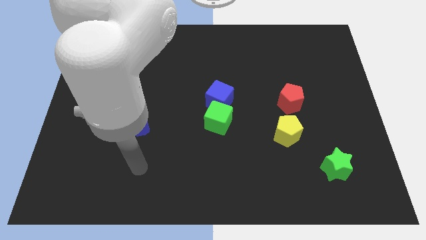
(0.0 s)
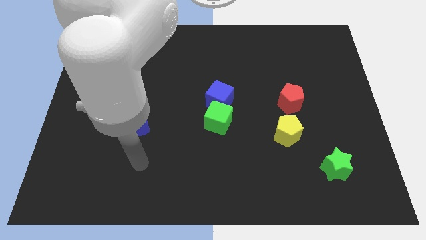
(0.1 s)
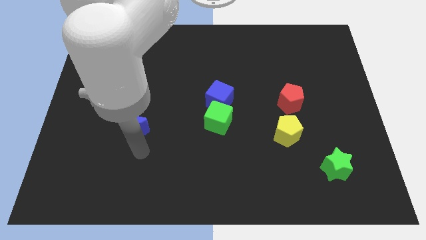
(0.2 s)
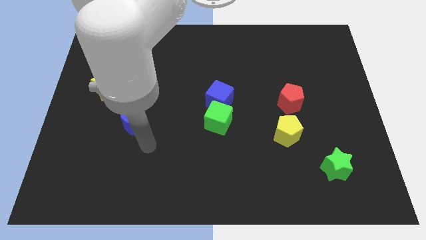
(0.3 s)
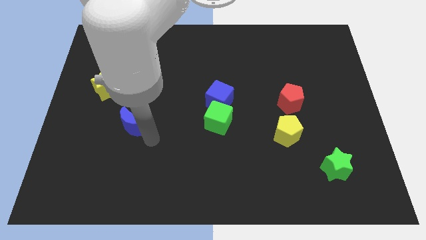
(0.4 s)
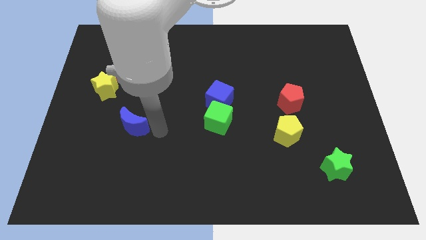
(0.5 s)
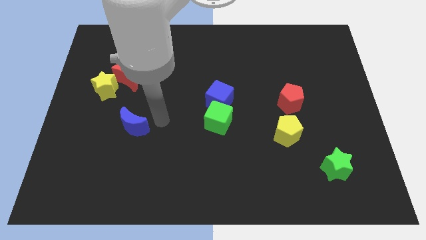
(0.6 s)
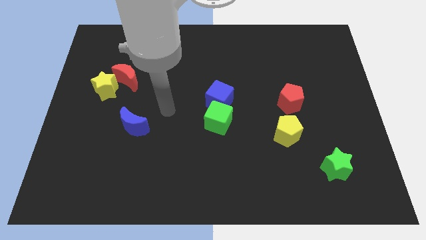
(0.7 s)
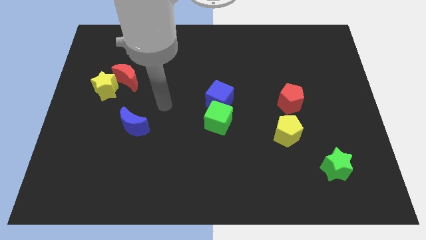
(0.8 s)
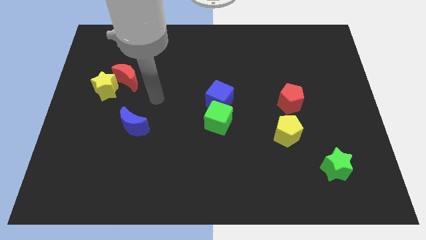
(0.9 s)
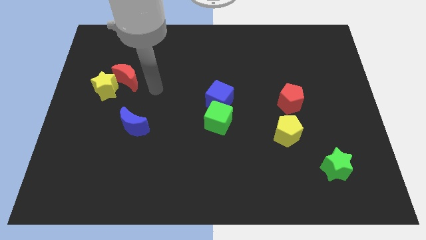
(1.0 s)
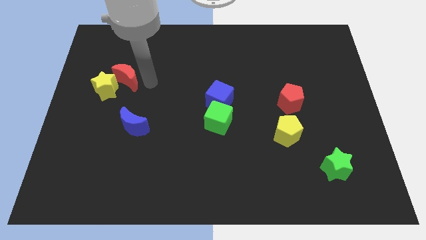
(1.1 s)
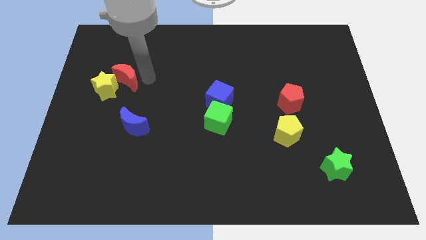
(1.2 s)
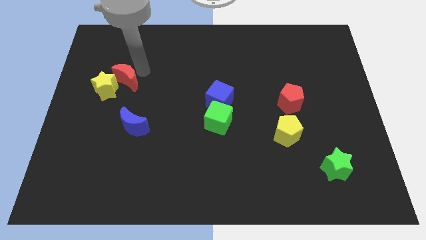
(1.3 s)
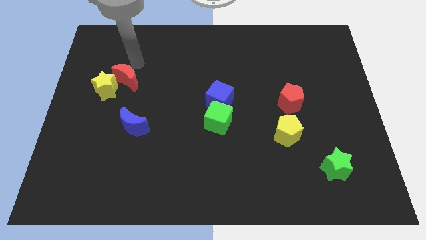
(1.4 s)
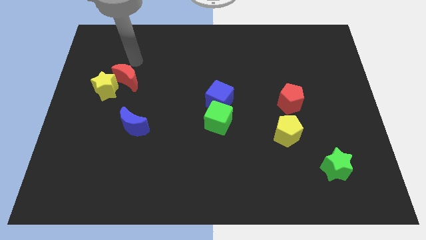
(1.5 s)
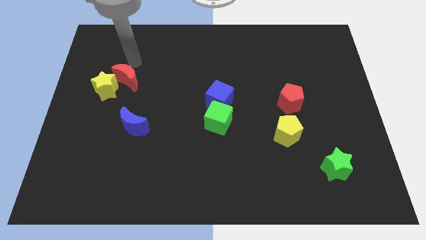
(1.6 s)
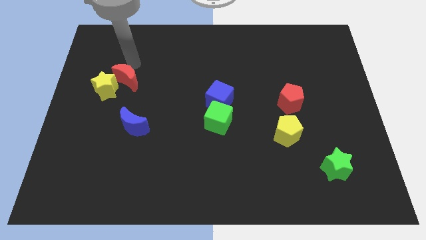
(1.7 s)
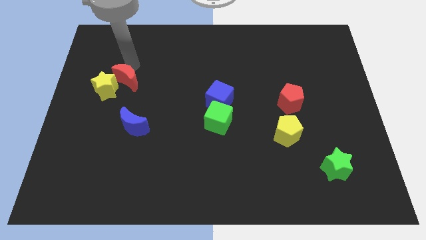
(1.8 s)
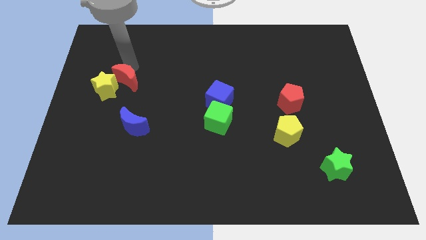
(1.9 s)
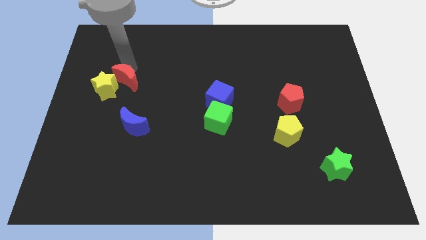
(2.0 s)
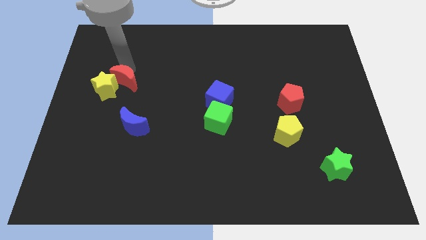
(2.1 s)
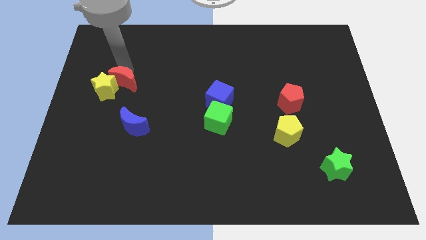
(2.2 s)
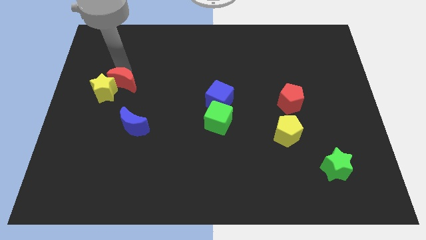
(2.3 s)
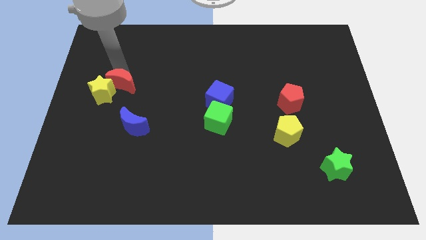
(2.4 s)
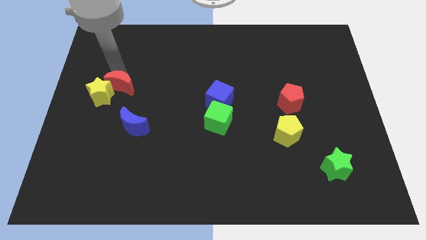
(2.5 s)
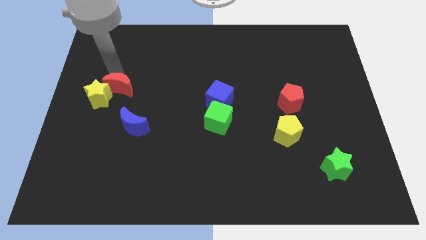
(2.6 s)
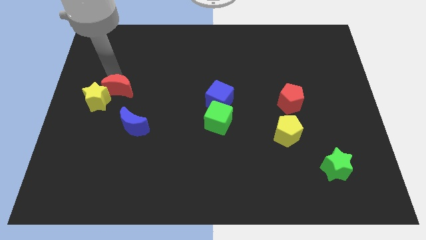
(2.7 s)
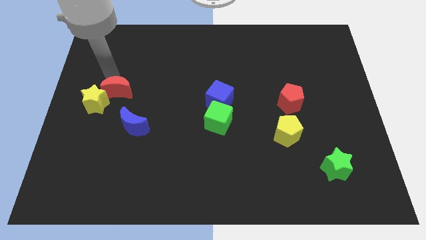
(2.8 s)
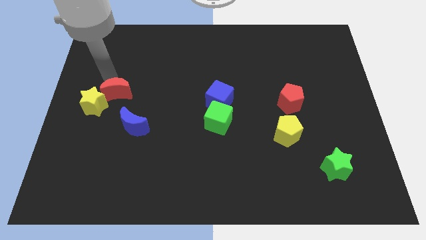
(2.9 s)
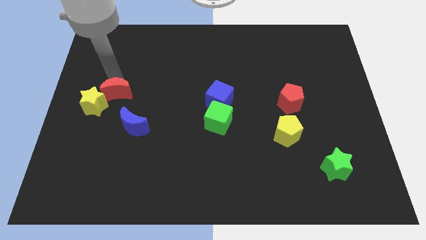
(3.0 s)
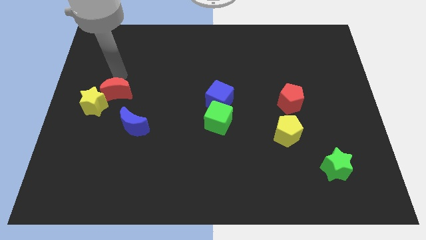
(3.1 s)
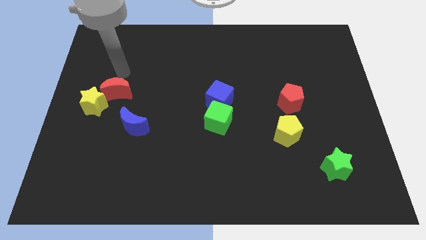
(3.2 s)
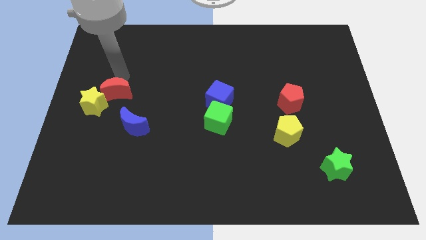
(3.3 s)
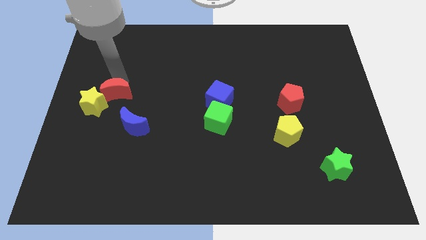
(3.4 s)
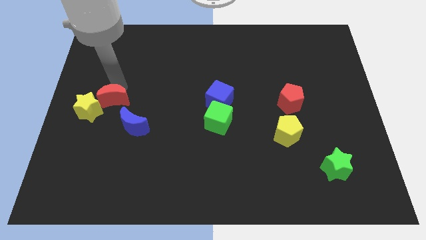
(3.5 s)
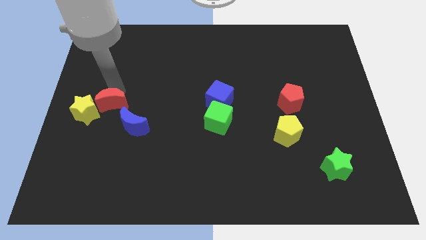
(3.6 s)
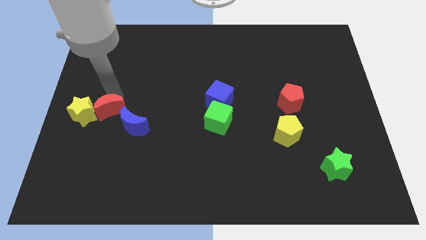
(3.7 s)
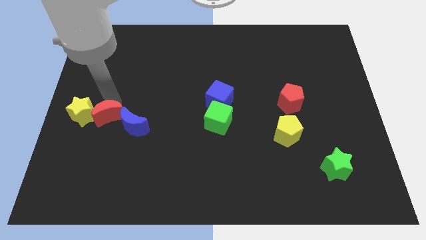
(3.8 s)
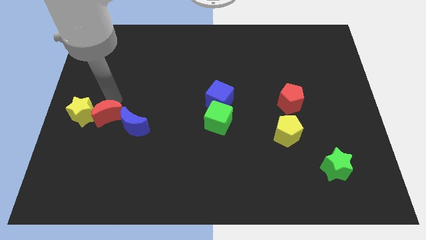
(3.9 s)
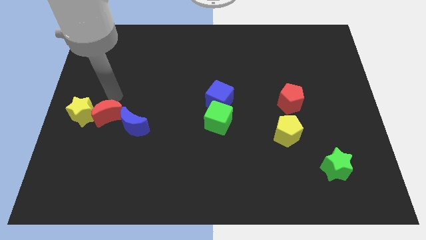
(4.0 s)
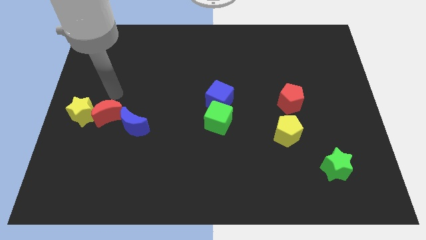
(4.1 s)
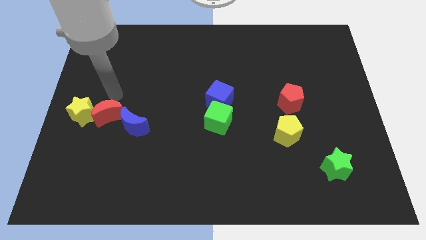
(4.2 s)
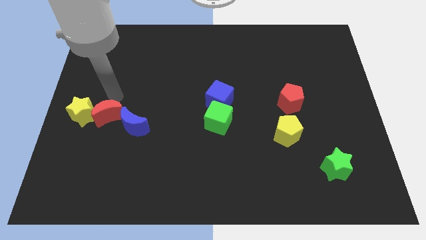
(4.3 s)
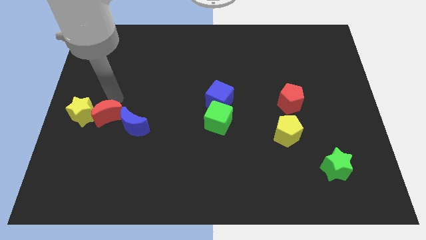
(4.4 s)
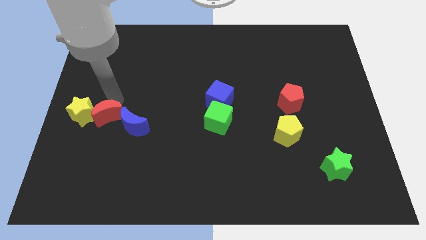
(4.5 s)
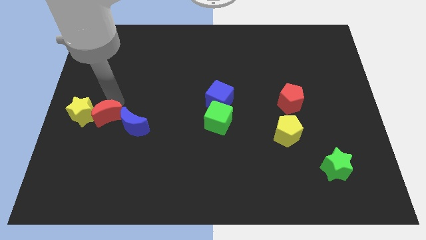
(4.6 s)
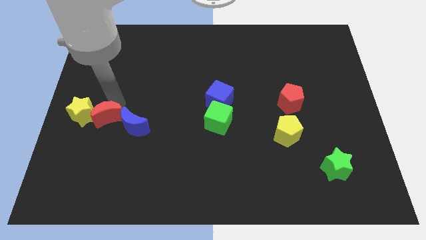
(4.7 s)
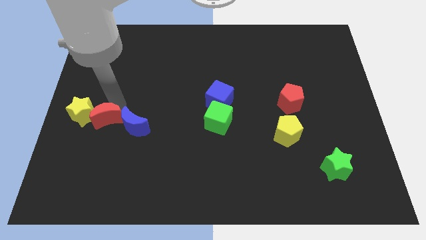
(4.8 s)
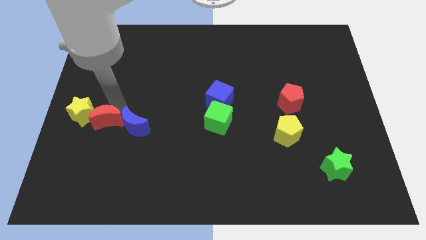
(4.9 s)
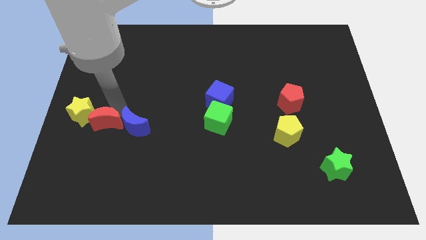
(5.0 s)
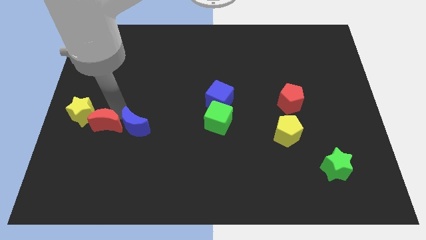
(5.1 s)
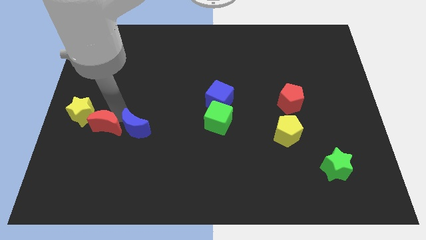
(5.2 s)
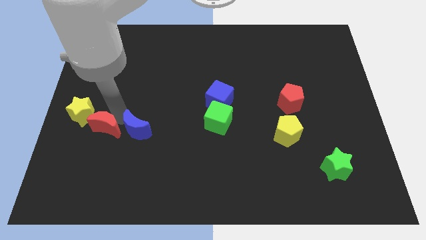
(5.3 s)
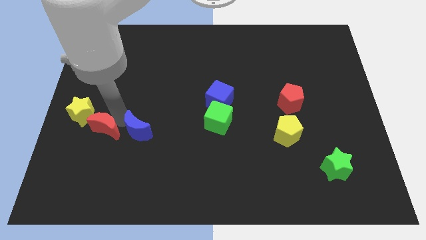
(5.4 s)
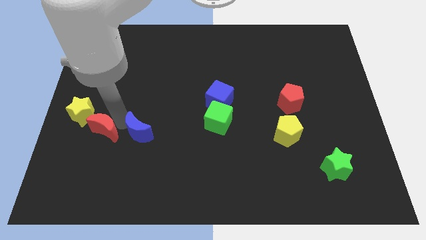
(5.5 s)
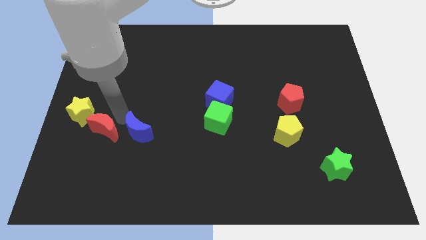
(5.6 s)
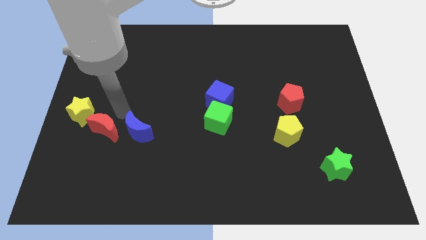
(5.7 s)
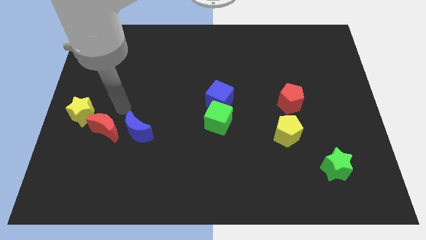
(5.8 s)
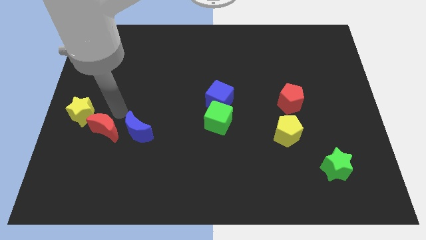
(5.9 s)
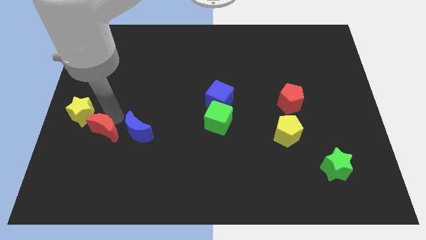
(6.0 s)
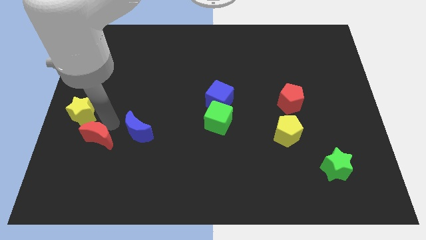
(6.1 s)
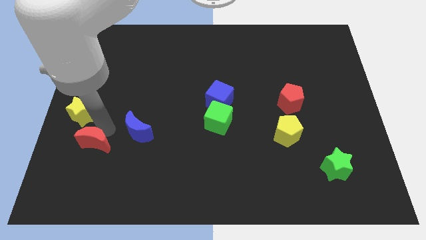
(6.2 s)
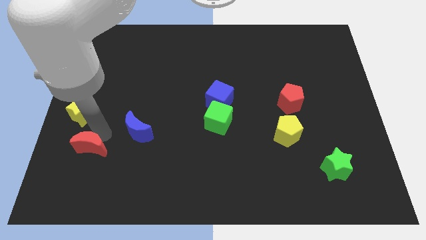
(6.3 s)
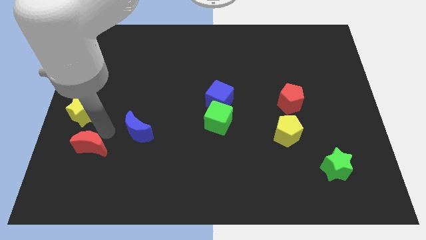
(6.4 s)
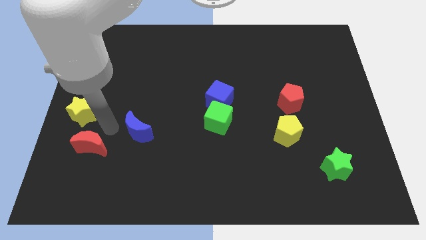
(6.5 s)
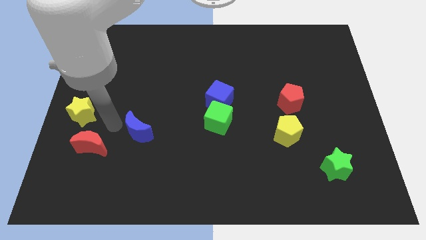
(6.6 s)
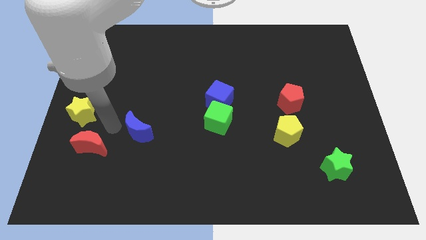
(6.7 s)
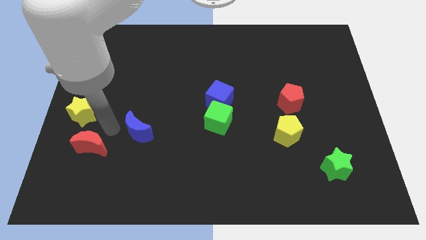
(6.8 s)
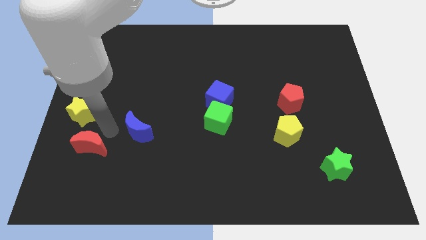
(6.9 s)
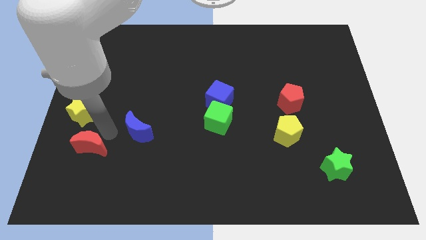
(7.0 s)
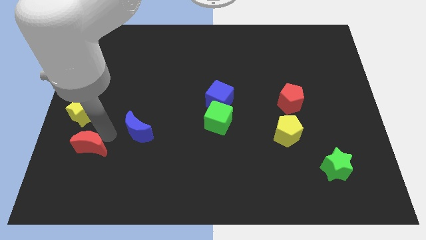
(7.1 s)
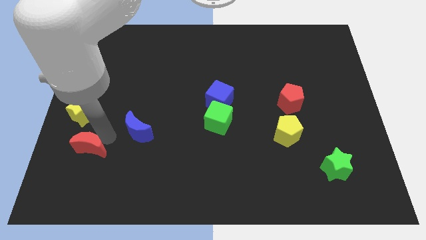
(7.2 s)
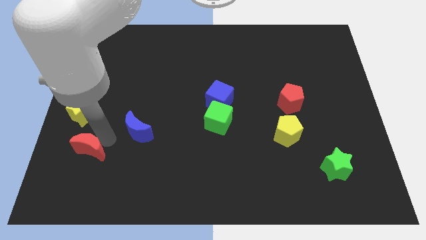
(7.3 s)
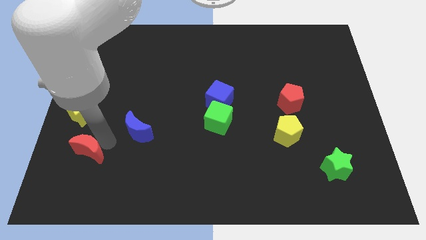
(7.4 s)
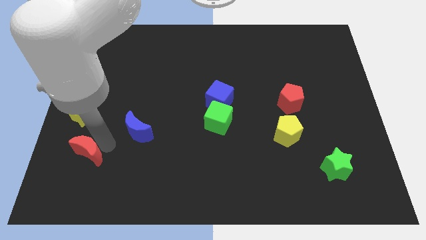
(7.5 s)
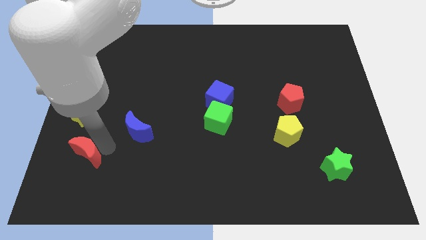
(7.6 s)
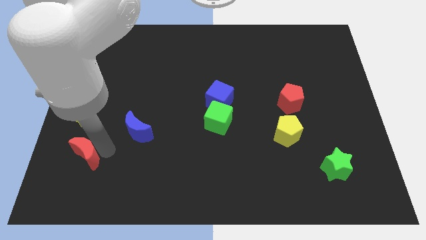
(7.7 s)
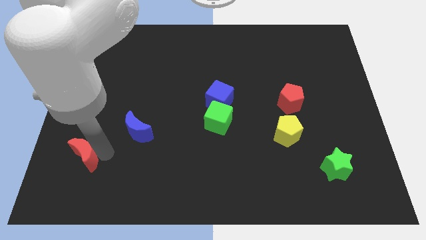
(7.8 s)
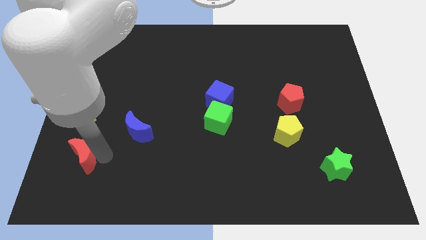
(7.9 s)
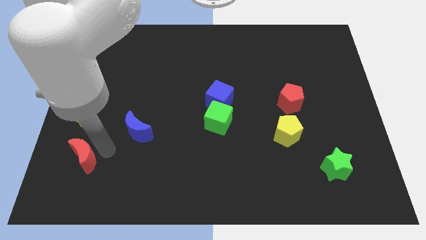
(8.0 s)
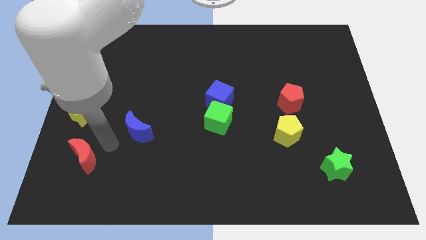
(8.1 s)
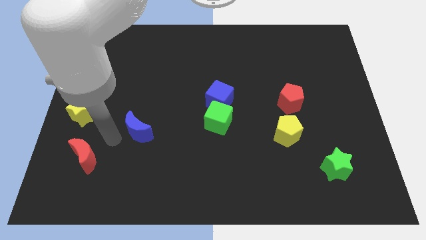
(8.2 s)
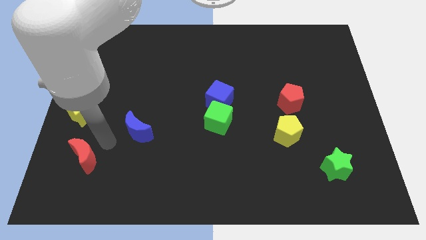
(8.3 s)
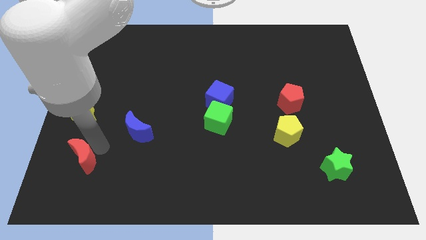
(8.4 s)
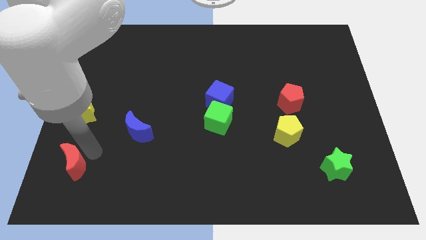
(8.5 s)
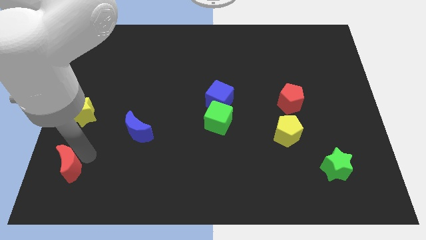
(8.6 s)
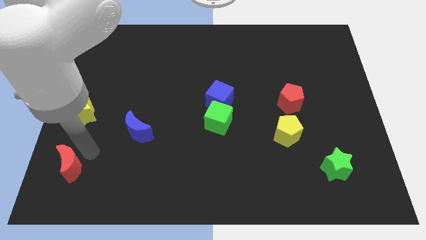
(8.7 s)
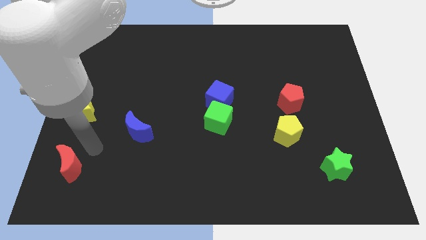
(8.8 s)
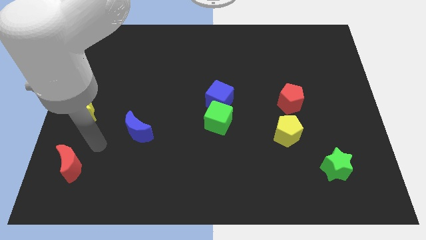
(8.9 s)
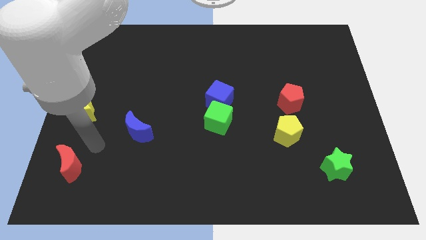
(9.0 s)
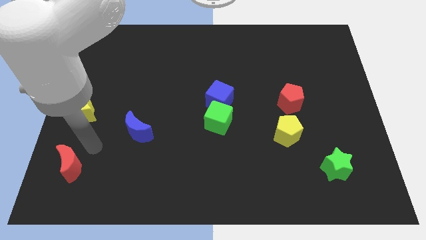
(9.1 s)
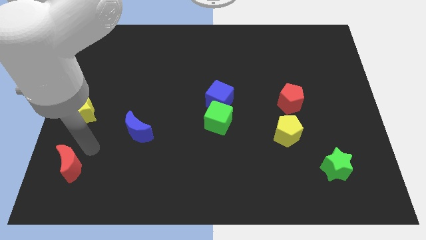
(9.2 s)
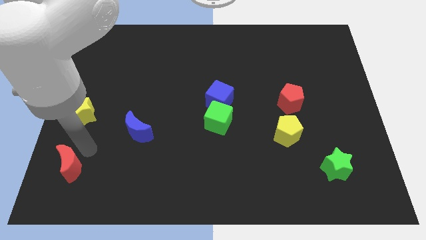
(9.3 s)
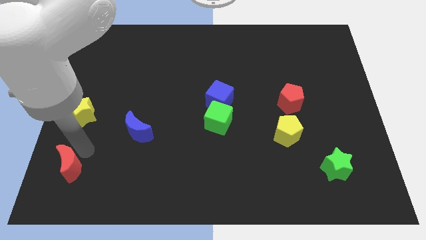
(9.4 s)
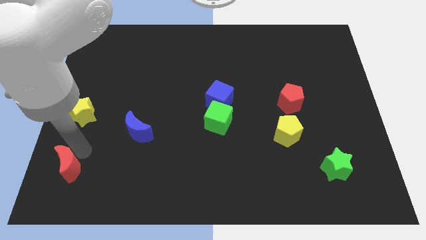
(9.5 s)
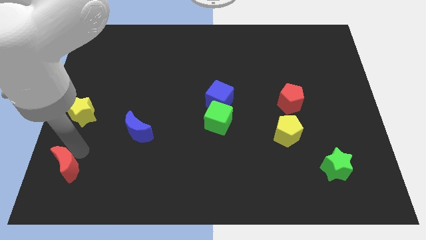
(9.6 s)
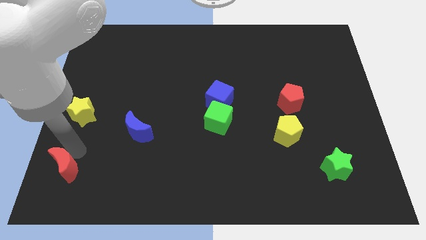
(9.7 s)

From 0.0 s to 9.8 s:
put the red moon to the bottom left corner
